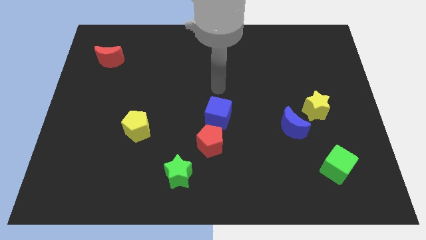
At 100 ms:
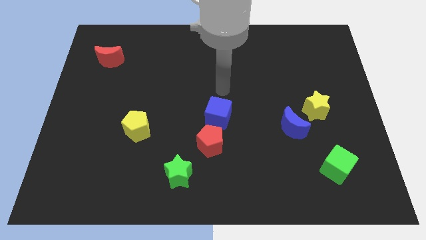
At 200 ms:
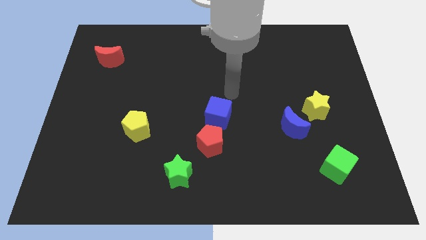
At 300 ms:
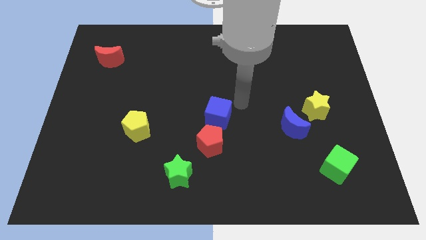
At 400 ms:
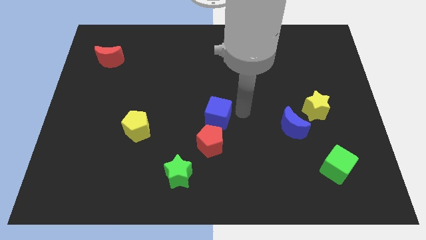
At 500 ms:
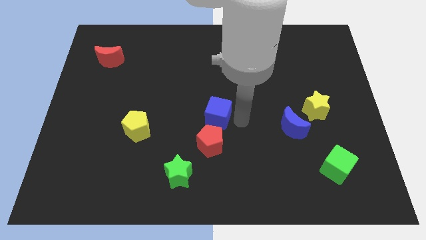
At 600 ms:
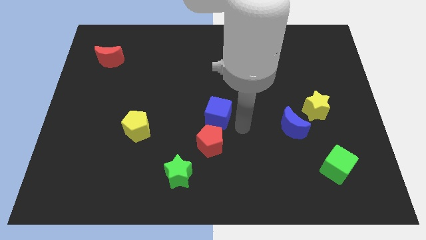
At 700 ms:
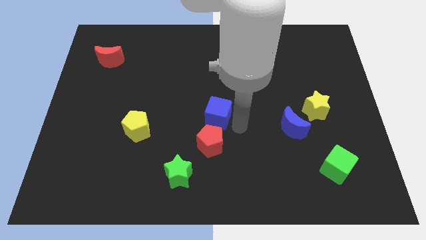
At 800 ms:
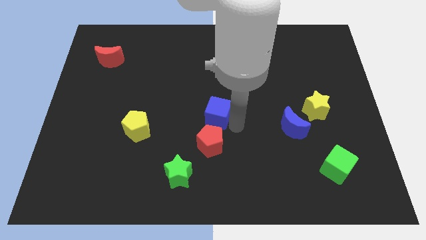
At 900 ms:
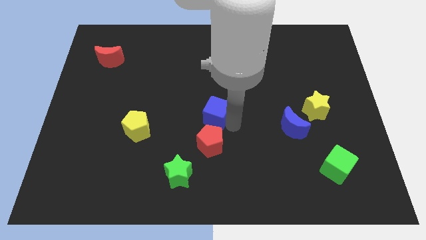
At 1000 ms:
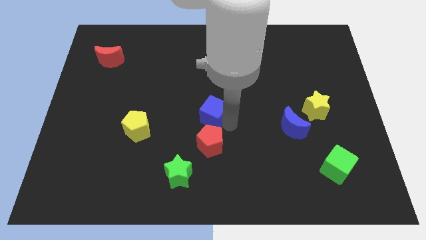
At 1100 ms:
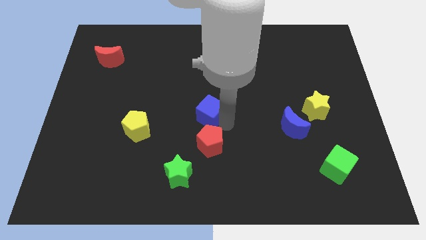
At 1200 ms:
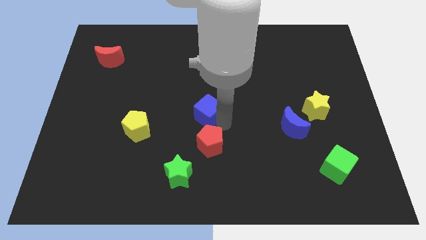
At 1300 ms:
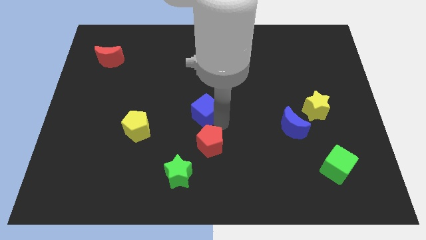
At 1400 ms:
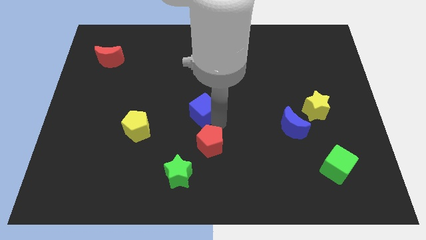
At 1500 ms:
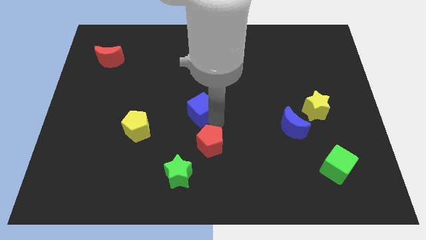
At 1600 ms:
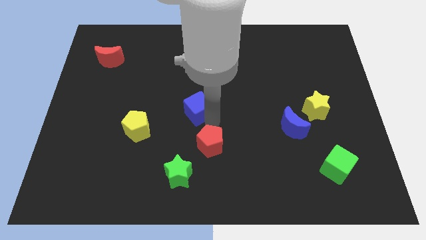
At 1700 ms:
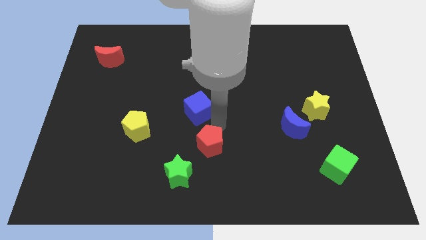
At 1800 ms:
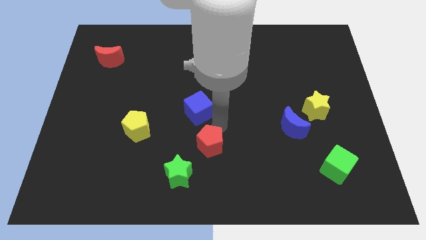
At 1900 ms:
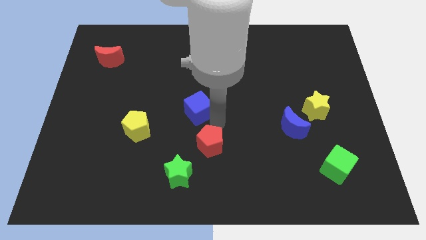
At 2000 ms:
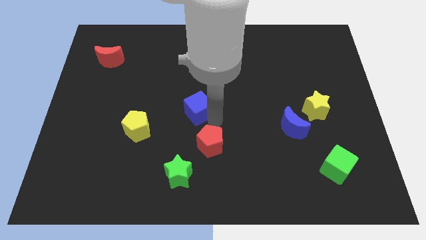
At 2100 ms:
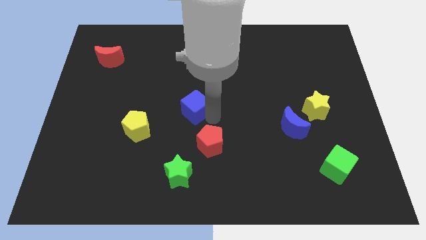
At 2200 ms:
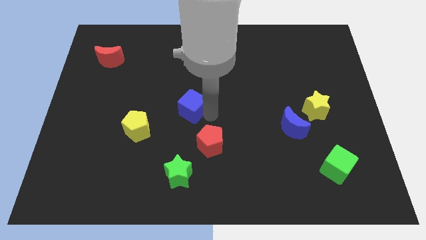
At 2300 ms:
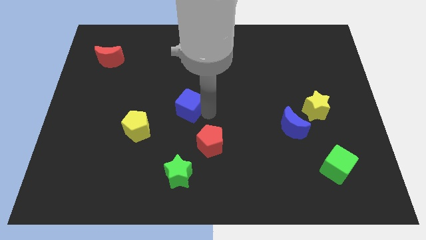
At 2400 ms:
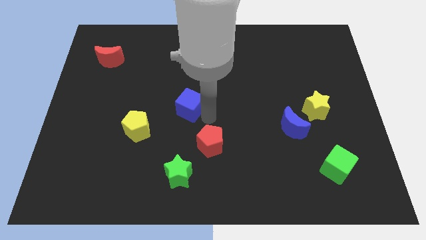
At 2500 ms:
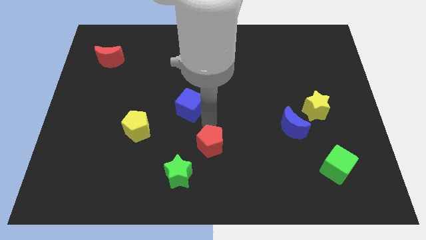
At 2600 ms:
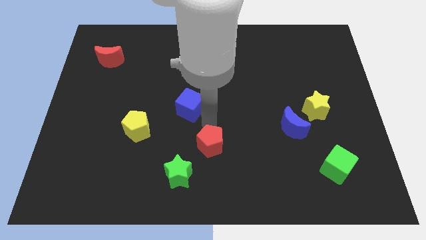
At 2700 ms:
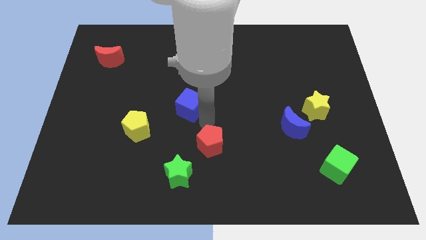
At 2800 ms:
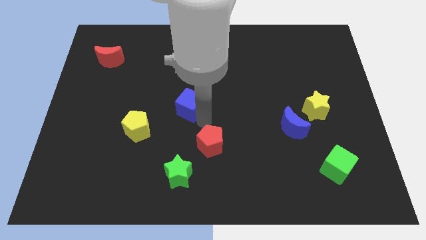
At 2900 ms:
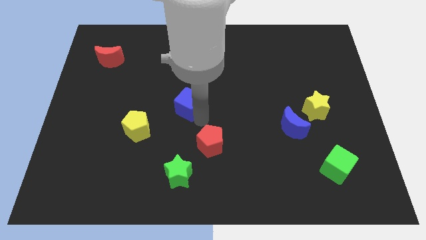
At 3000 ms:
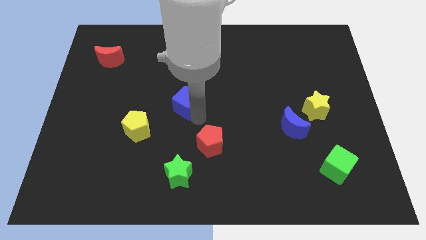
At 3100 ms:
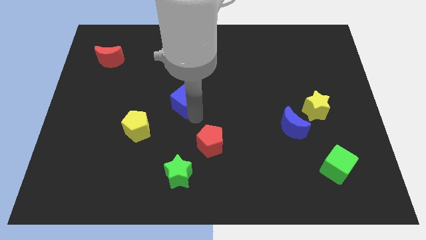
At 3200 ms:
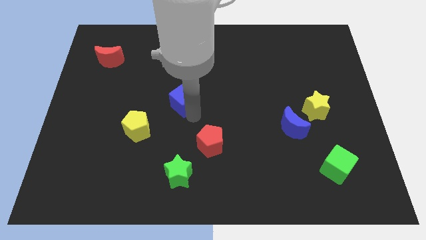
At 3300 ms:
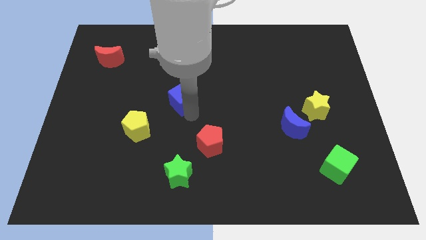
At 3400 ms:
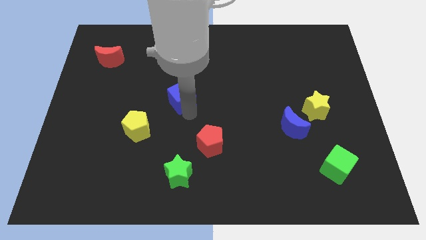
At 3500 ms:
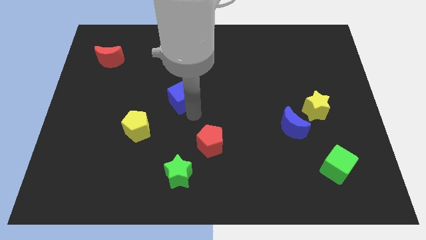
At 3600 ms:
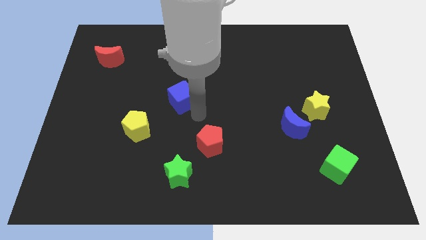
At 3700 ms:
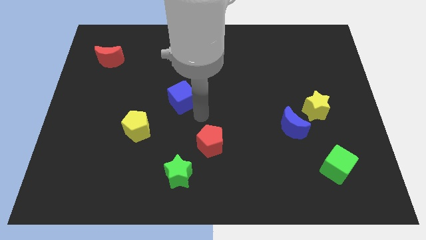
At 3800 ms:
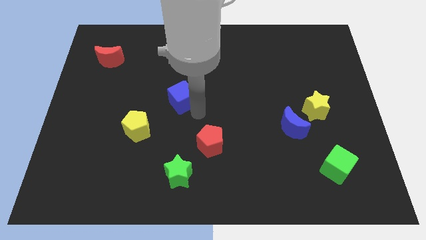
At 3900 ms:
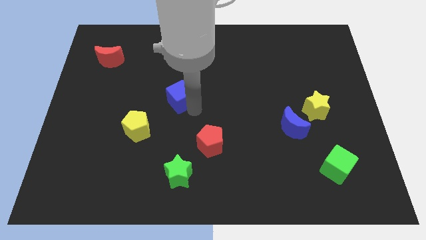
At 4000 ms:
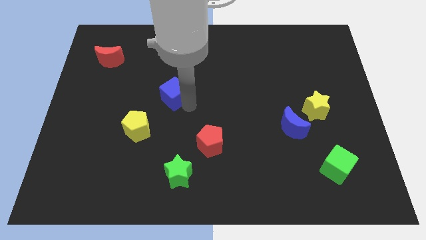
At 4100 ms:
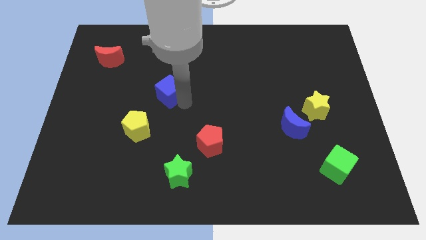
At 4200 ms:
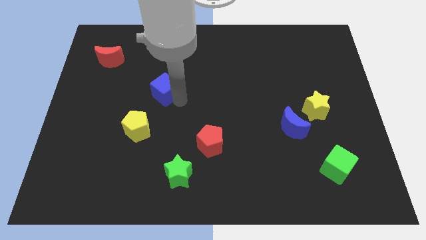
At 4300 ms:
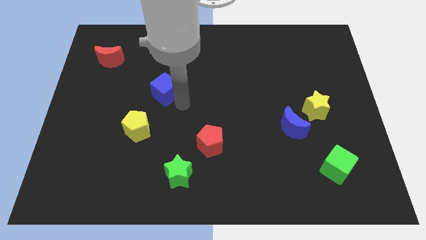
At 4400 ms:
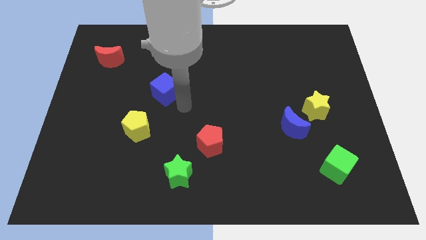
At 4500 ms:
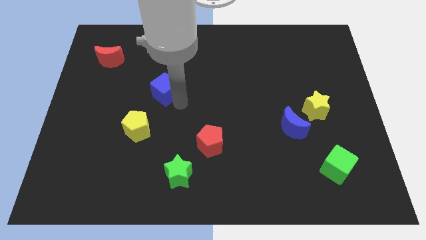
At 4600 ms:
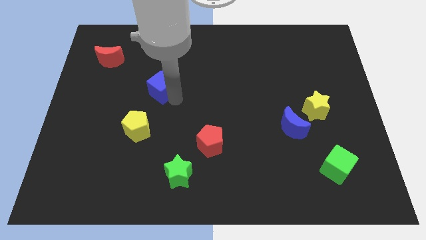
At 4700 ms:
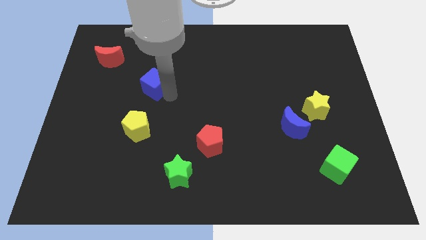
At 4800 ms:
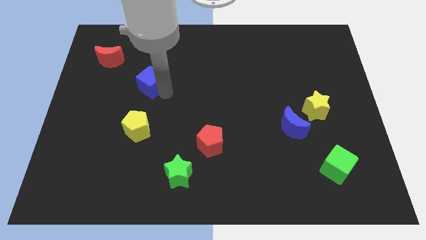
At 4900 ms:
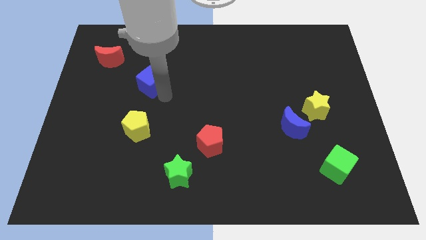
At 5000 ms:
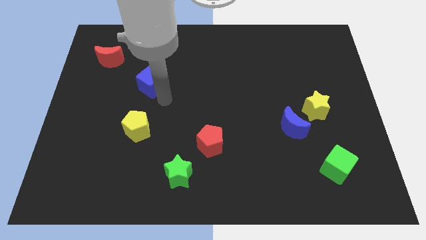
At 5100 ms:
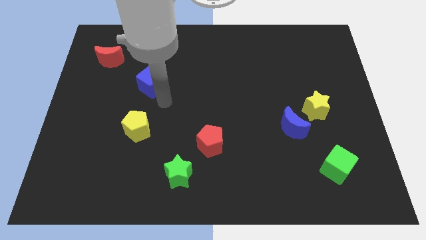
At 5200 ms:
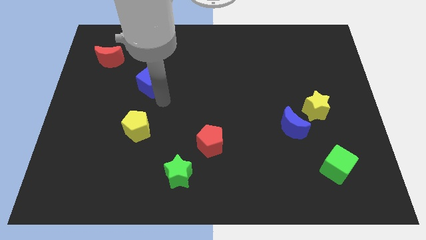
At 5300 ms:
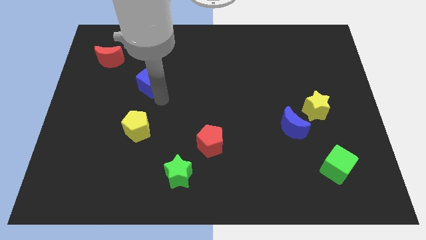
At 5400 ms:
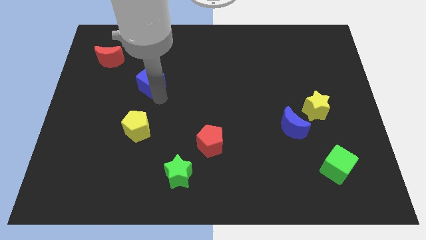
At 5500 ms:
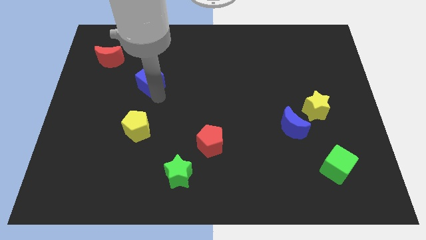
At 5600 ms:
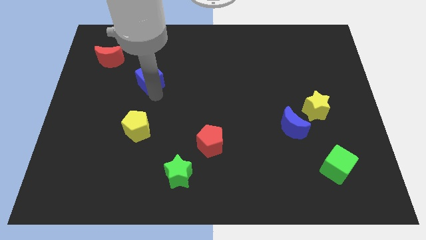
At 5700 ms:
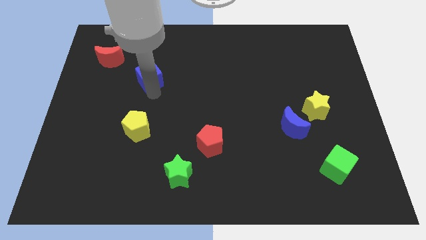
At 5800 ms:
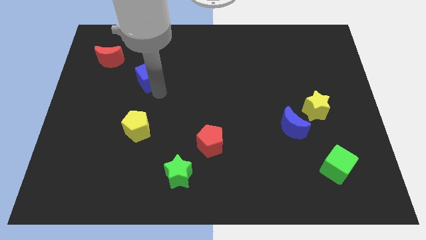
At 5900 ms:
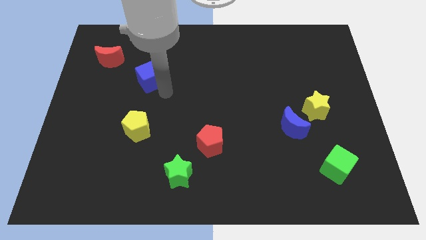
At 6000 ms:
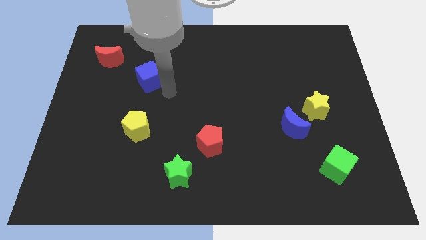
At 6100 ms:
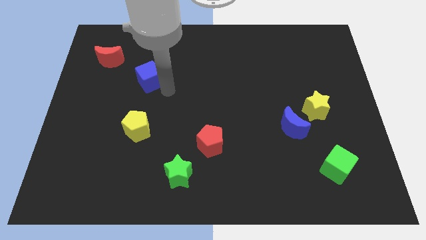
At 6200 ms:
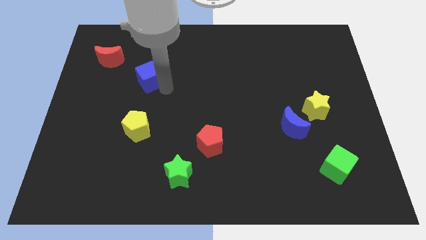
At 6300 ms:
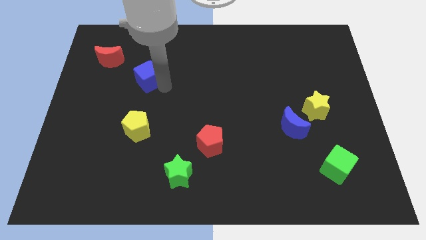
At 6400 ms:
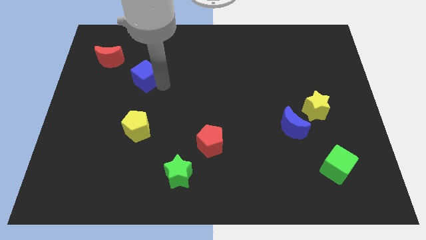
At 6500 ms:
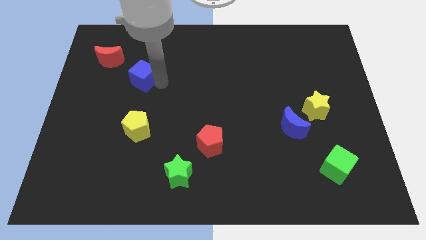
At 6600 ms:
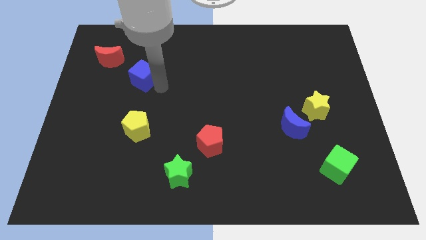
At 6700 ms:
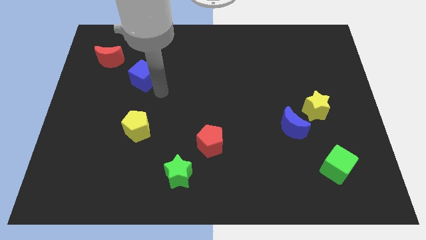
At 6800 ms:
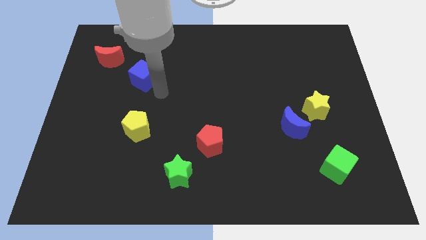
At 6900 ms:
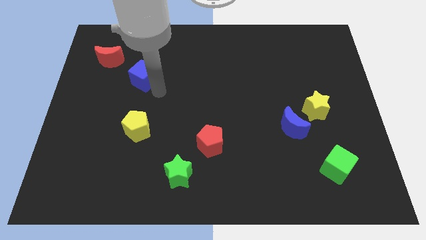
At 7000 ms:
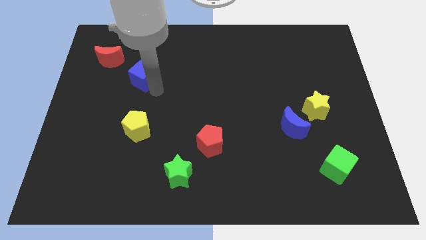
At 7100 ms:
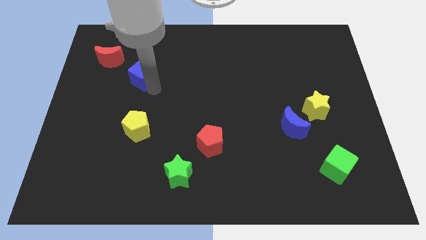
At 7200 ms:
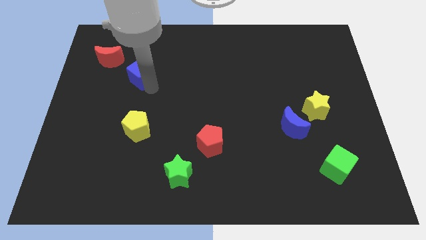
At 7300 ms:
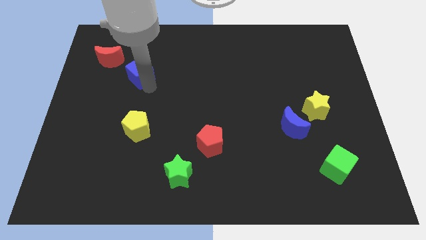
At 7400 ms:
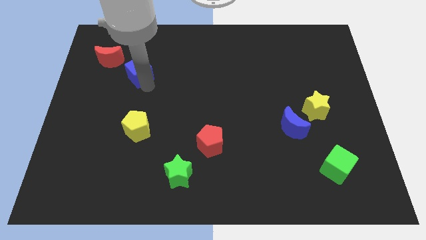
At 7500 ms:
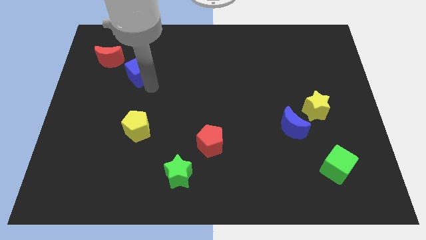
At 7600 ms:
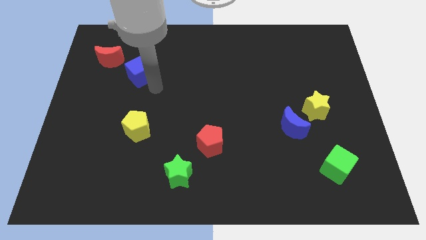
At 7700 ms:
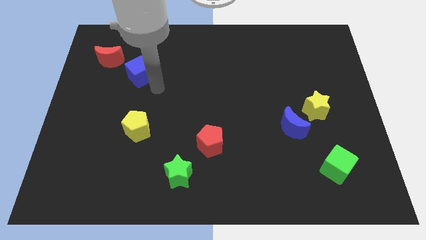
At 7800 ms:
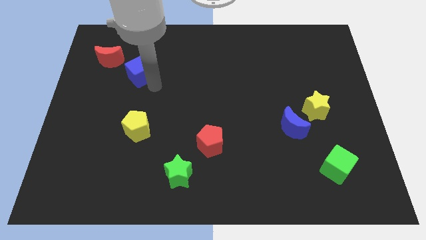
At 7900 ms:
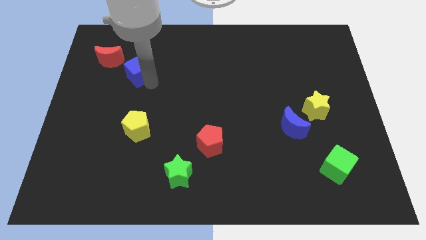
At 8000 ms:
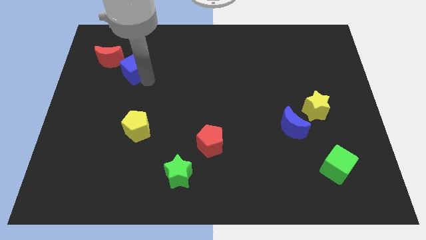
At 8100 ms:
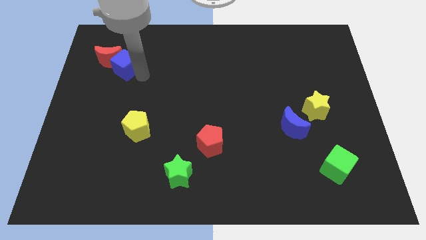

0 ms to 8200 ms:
put the blue cube towards the red moon
